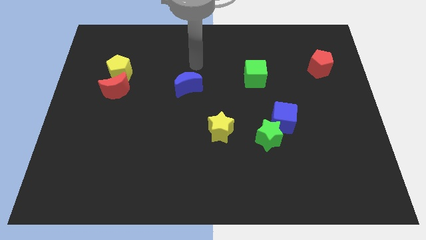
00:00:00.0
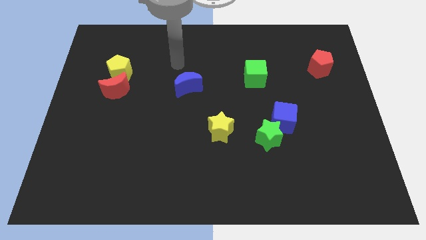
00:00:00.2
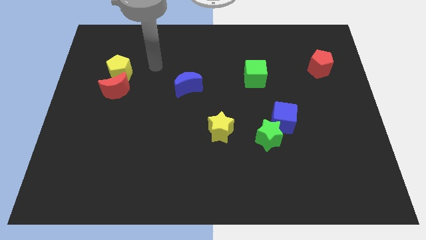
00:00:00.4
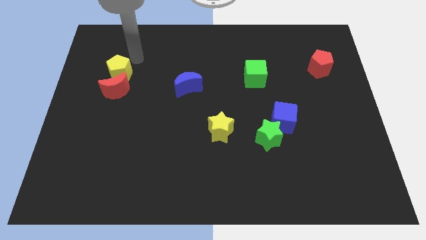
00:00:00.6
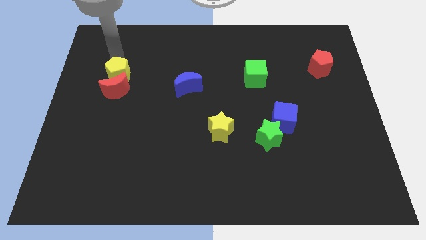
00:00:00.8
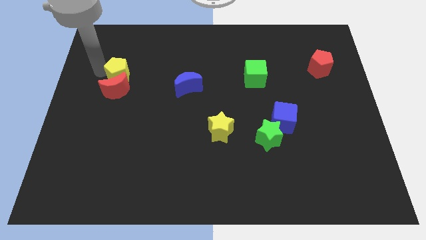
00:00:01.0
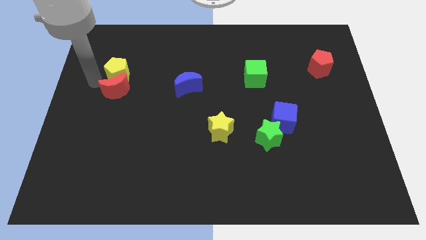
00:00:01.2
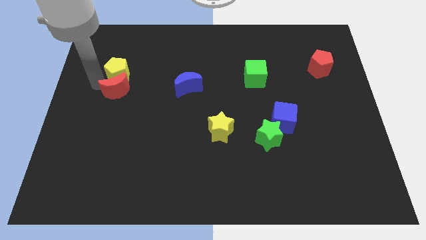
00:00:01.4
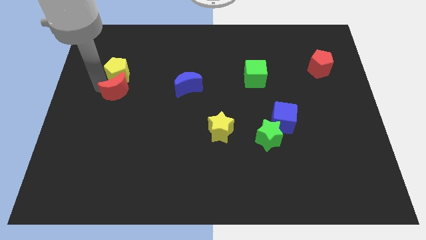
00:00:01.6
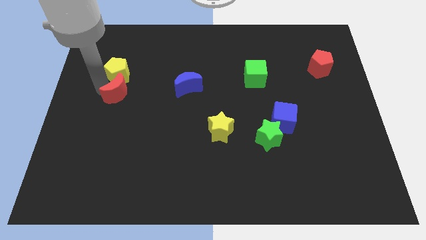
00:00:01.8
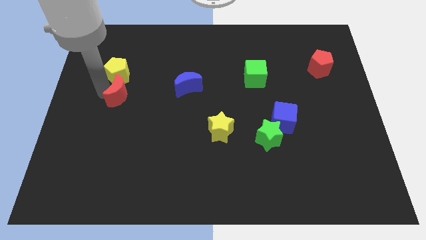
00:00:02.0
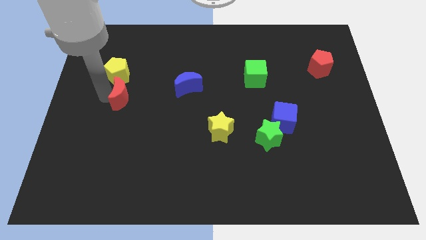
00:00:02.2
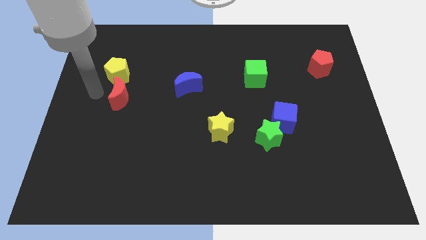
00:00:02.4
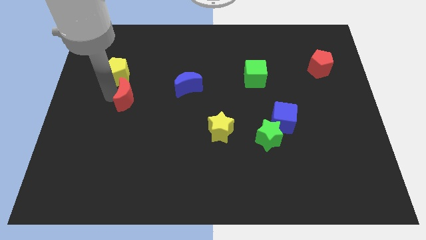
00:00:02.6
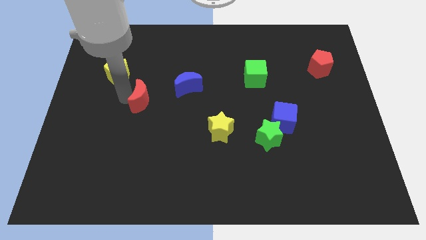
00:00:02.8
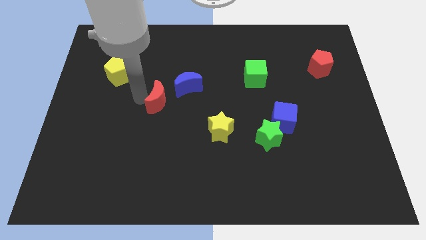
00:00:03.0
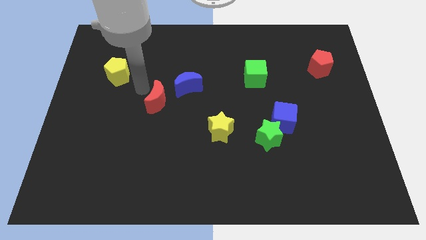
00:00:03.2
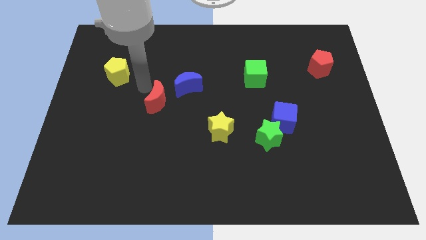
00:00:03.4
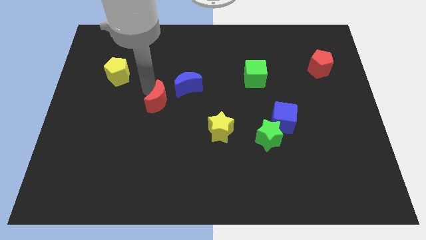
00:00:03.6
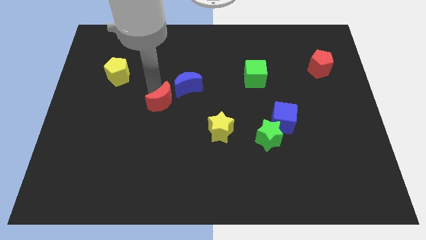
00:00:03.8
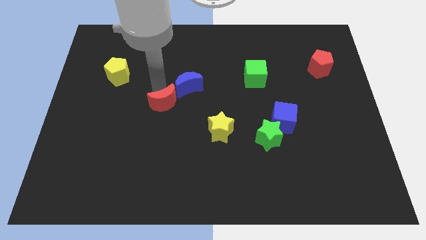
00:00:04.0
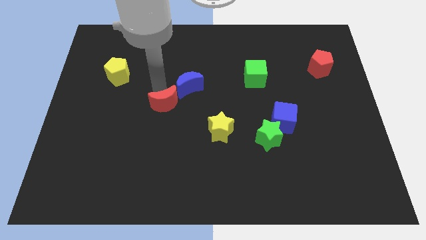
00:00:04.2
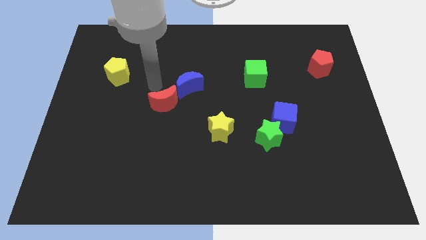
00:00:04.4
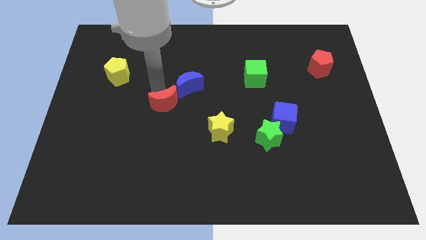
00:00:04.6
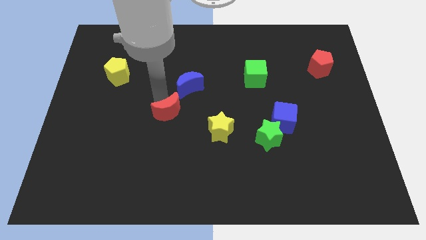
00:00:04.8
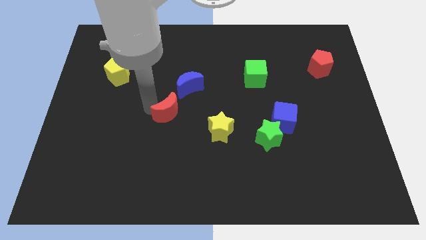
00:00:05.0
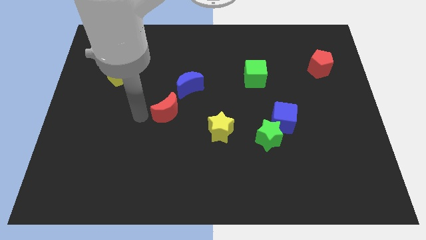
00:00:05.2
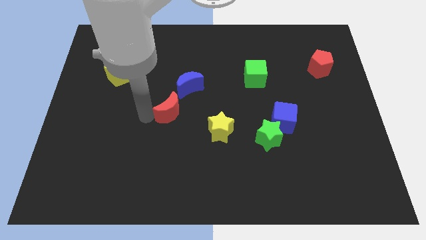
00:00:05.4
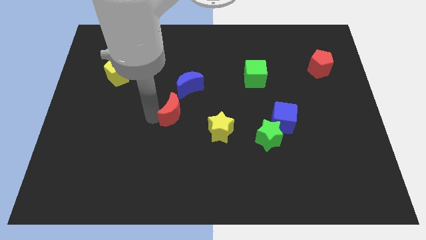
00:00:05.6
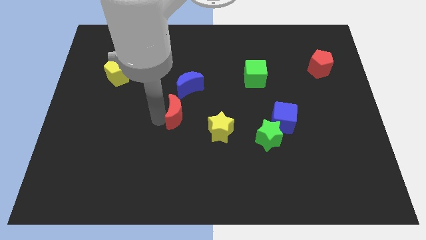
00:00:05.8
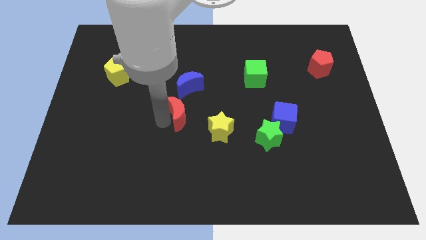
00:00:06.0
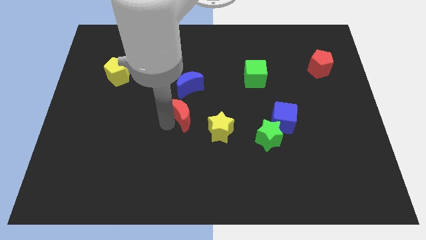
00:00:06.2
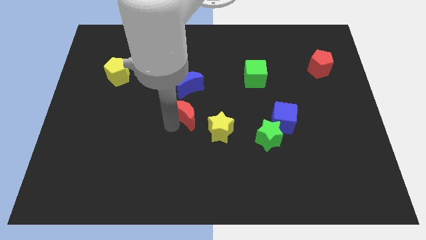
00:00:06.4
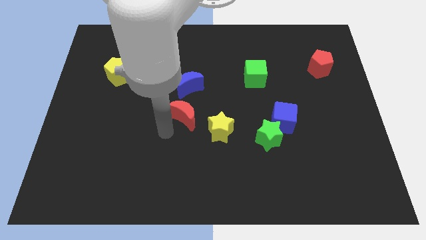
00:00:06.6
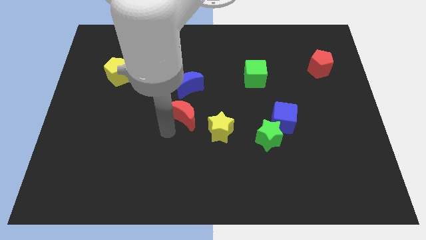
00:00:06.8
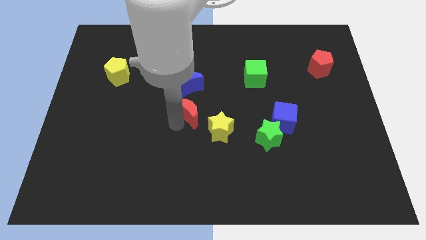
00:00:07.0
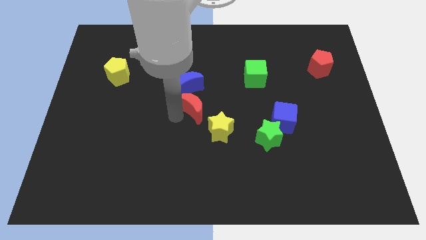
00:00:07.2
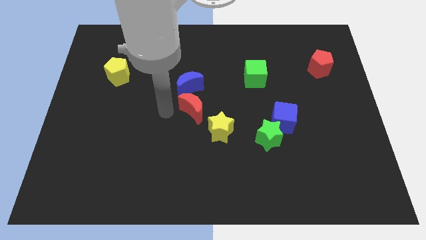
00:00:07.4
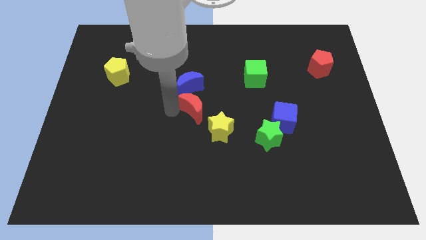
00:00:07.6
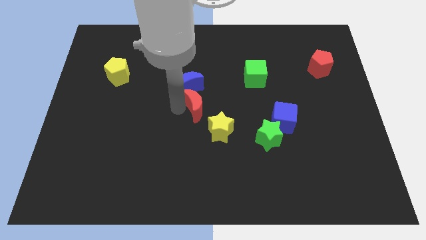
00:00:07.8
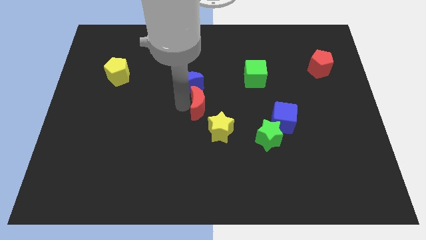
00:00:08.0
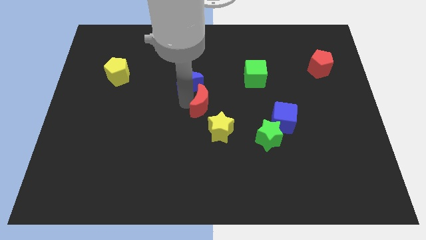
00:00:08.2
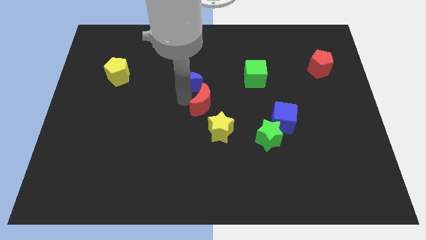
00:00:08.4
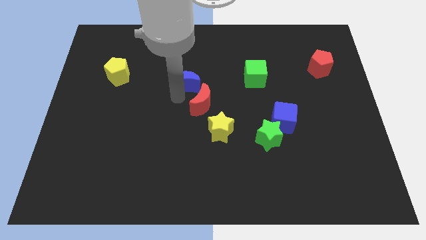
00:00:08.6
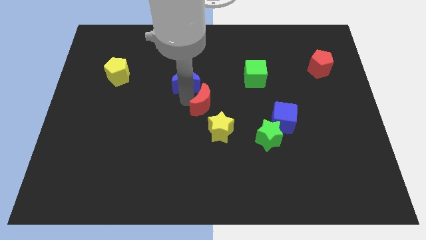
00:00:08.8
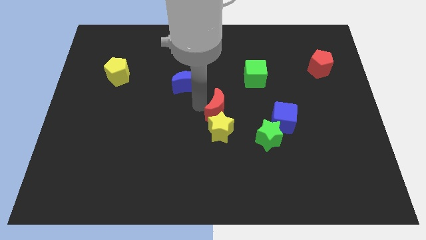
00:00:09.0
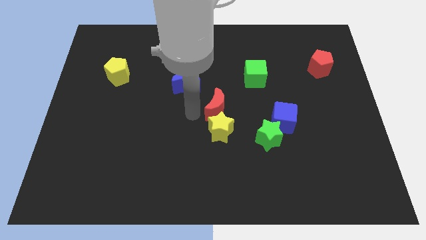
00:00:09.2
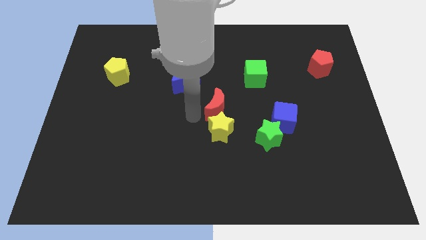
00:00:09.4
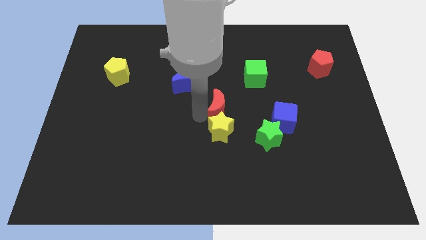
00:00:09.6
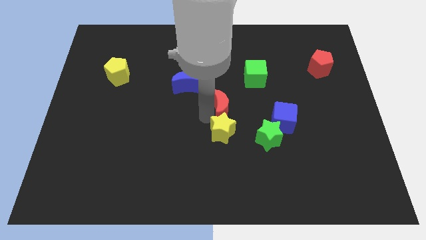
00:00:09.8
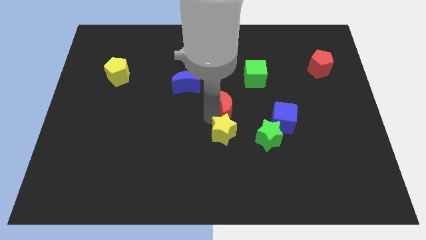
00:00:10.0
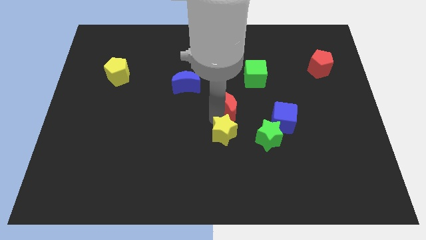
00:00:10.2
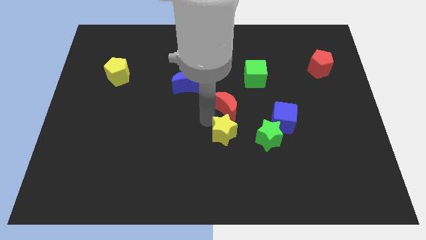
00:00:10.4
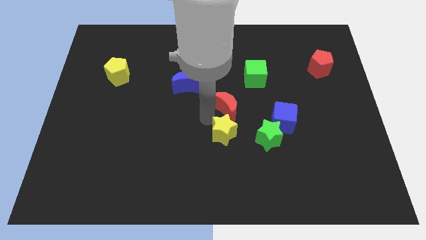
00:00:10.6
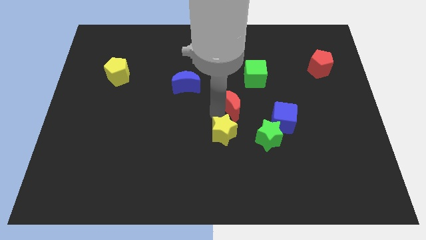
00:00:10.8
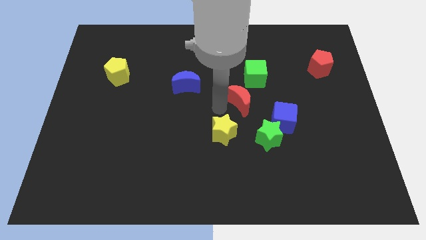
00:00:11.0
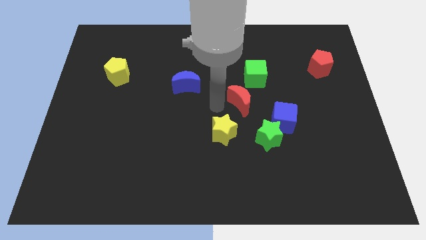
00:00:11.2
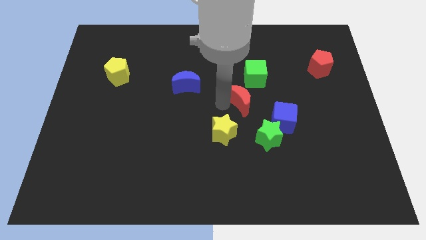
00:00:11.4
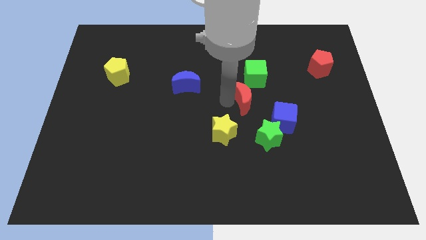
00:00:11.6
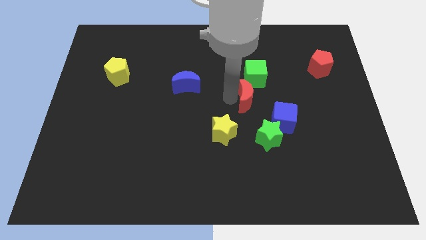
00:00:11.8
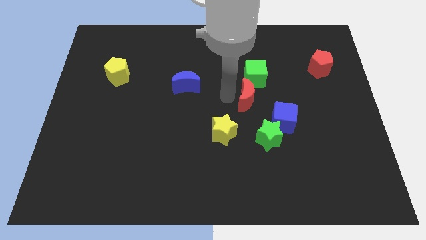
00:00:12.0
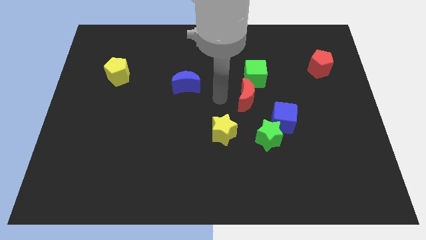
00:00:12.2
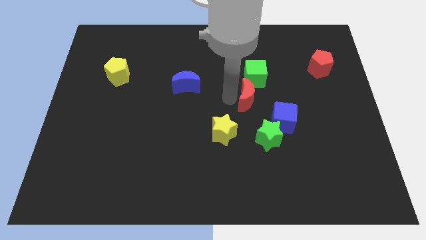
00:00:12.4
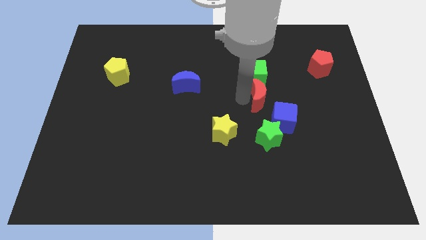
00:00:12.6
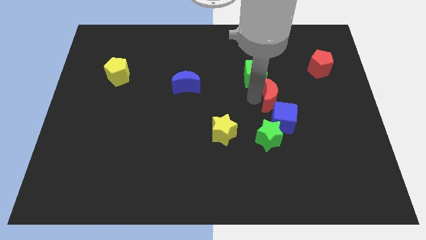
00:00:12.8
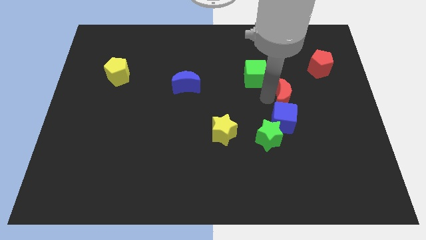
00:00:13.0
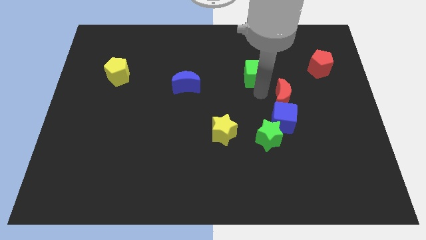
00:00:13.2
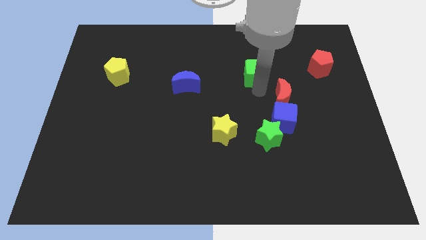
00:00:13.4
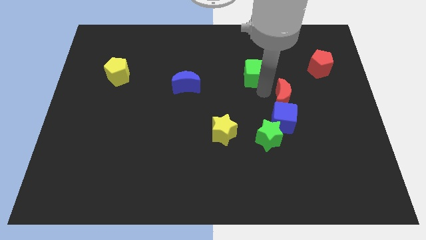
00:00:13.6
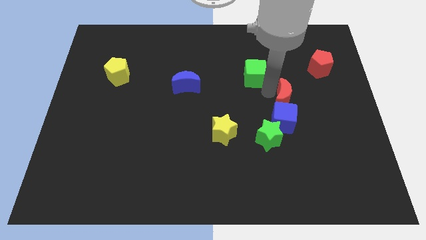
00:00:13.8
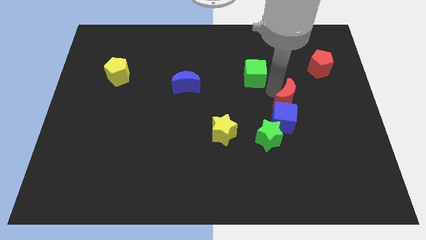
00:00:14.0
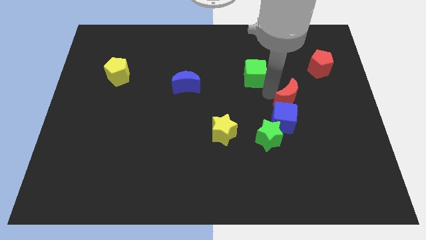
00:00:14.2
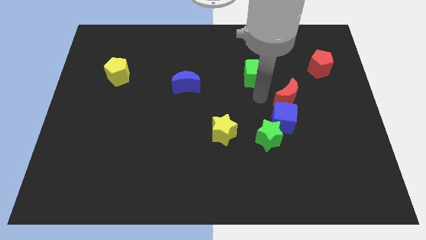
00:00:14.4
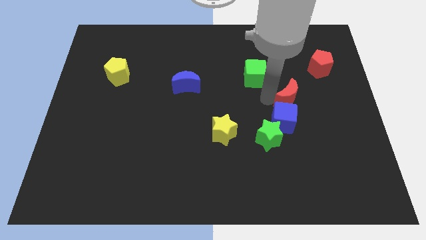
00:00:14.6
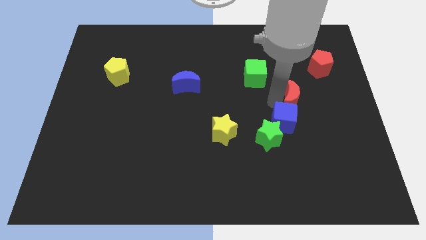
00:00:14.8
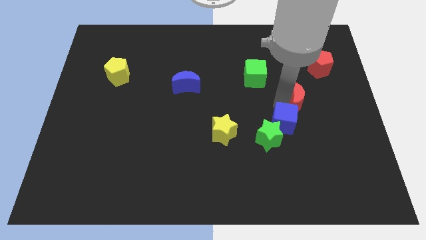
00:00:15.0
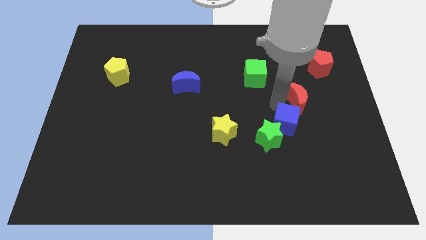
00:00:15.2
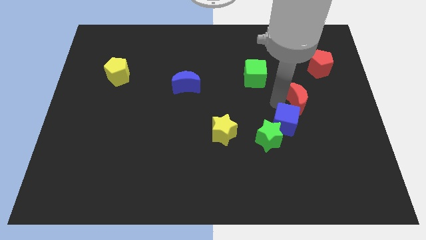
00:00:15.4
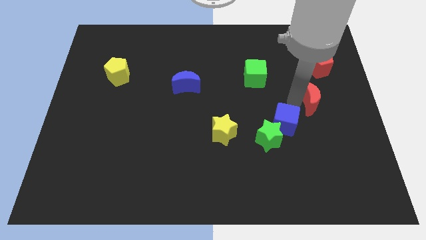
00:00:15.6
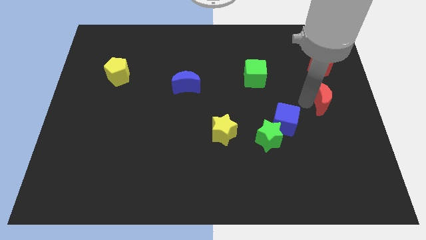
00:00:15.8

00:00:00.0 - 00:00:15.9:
move the red moon to the right side of the board
